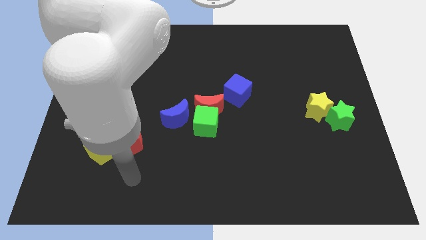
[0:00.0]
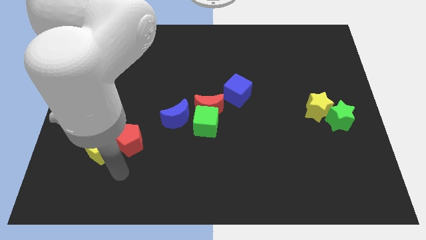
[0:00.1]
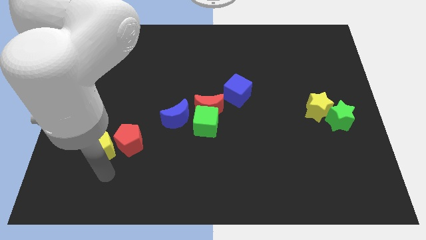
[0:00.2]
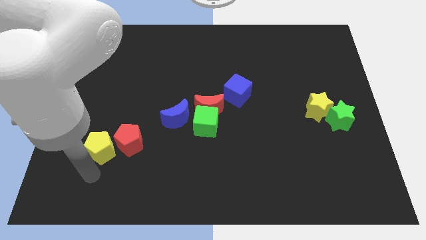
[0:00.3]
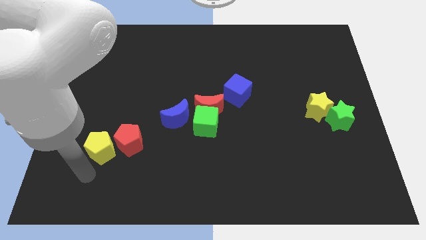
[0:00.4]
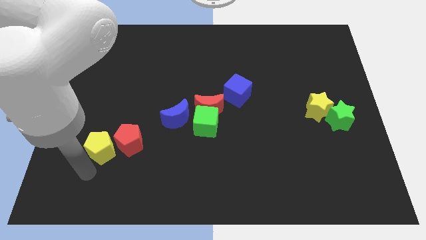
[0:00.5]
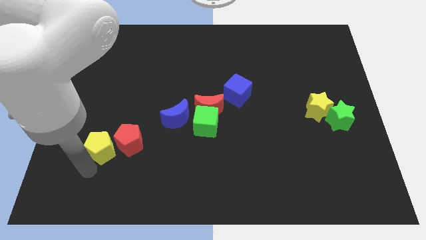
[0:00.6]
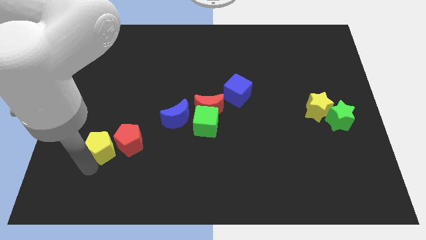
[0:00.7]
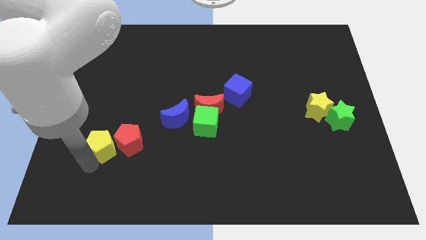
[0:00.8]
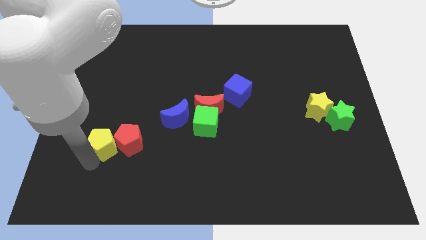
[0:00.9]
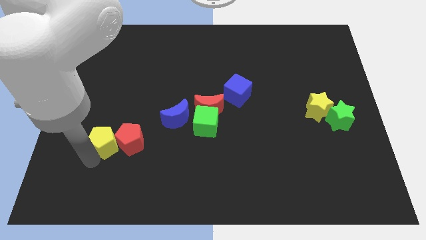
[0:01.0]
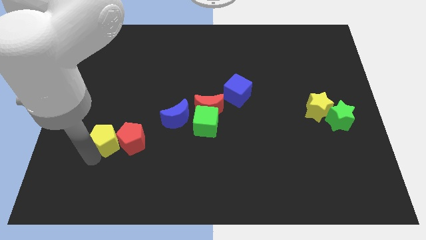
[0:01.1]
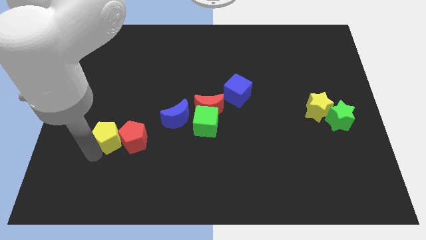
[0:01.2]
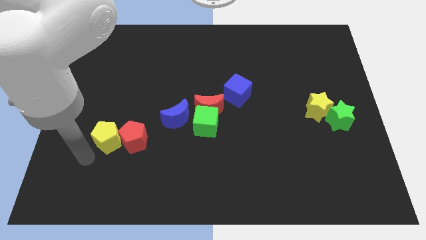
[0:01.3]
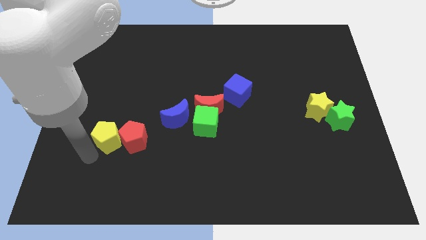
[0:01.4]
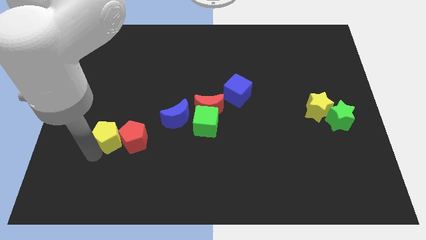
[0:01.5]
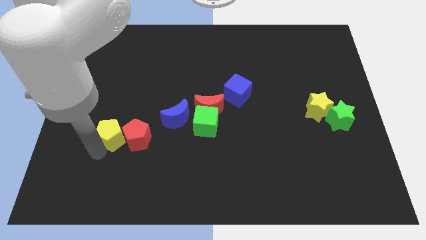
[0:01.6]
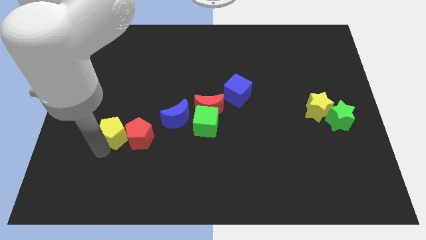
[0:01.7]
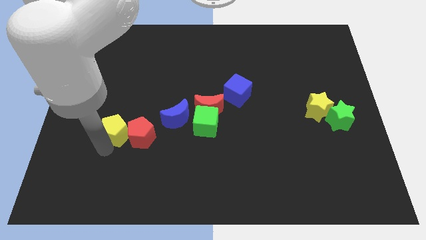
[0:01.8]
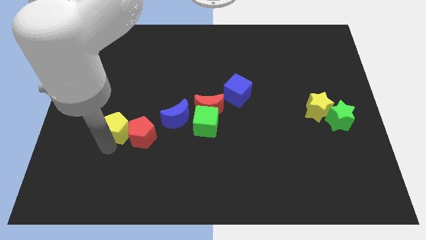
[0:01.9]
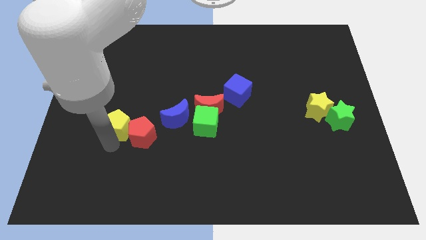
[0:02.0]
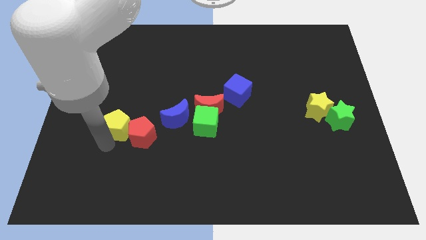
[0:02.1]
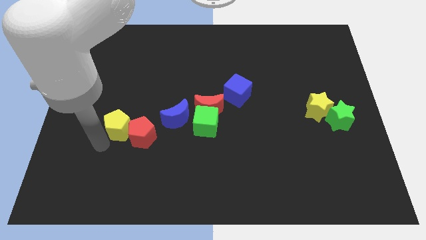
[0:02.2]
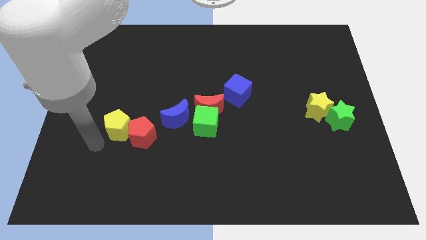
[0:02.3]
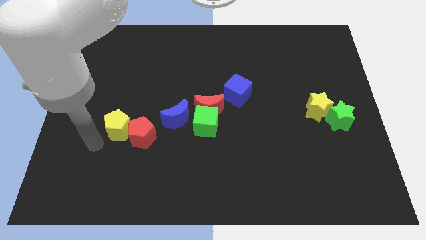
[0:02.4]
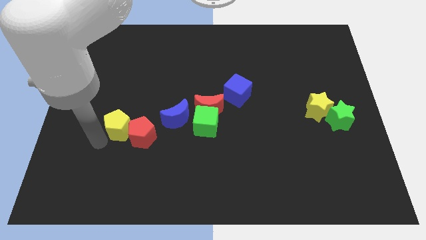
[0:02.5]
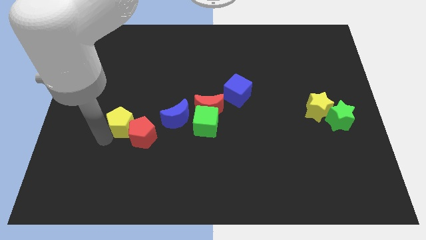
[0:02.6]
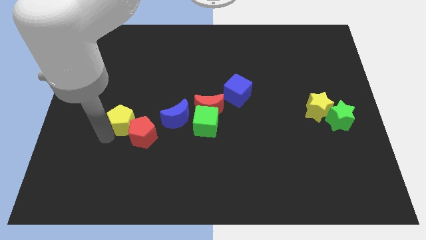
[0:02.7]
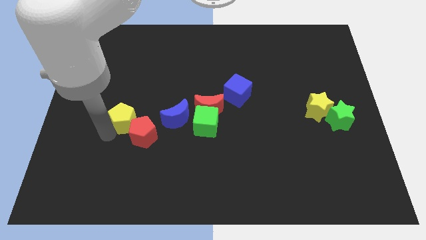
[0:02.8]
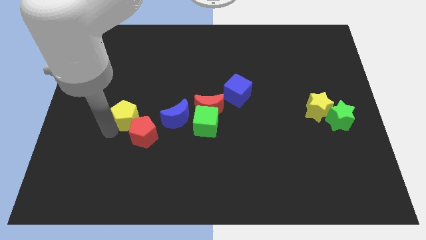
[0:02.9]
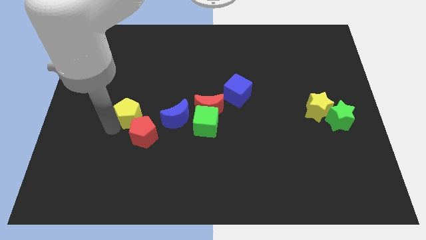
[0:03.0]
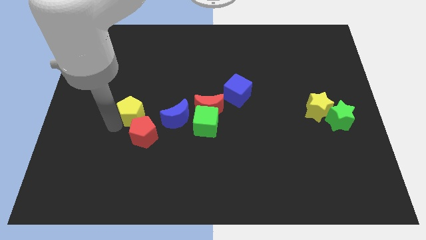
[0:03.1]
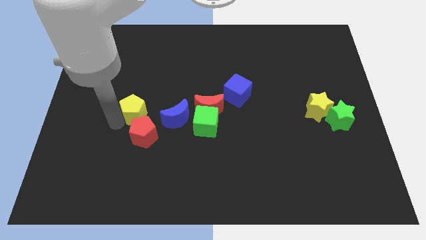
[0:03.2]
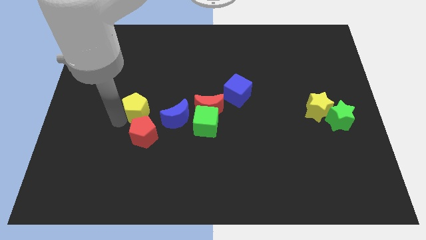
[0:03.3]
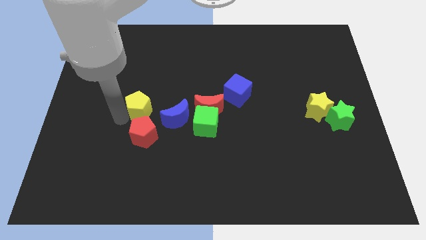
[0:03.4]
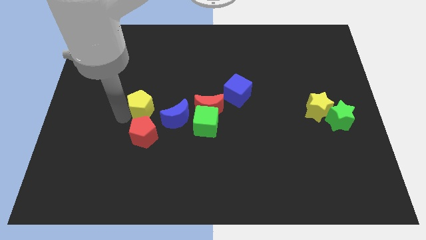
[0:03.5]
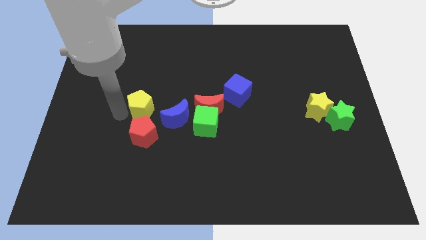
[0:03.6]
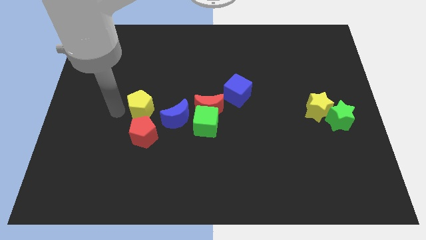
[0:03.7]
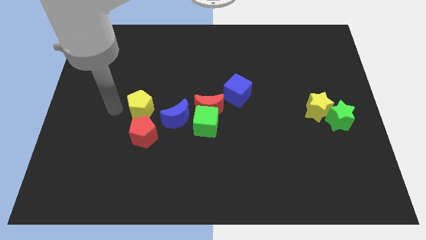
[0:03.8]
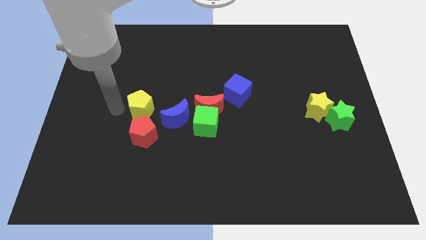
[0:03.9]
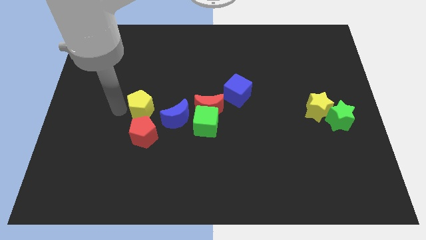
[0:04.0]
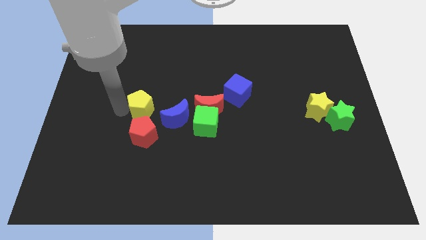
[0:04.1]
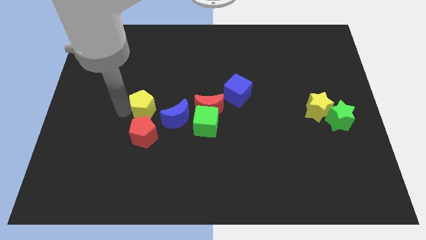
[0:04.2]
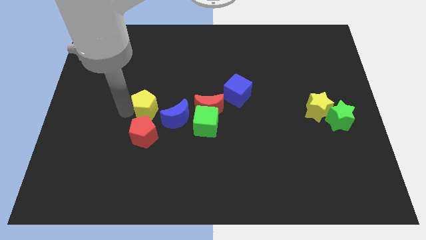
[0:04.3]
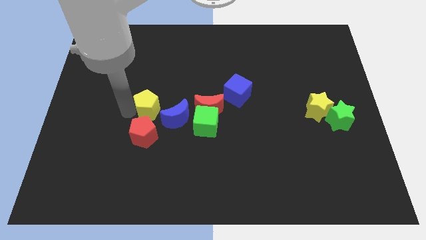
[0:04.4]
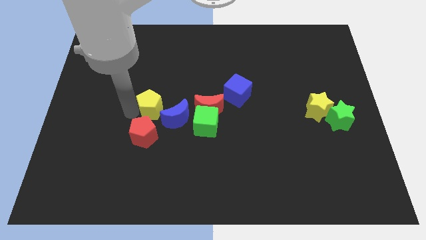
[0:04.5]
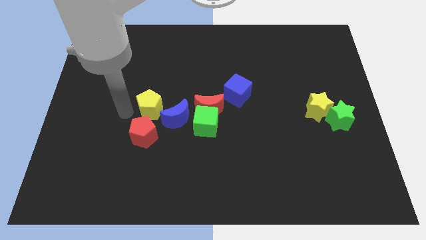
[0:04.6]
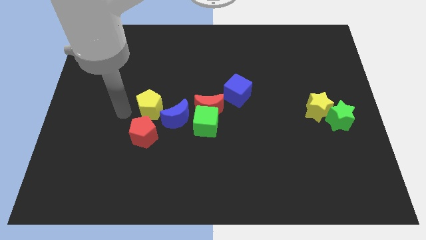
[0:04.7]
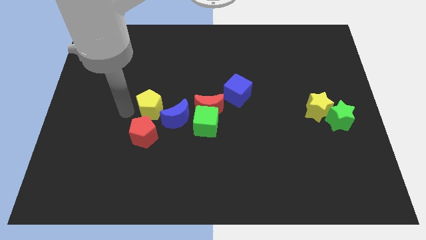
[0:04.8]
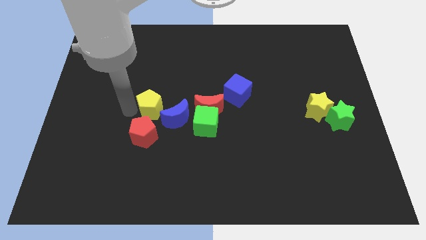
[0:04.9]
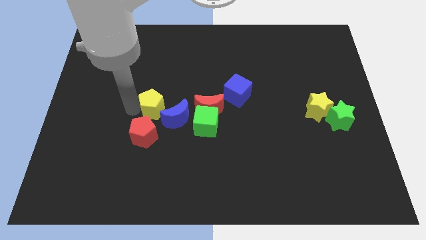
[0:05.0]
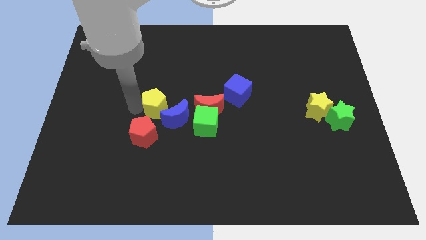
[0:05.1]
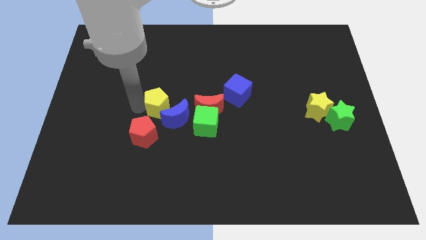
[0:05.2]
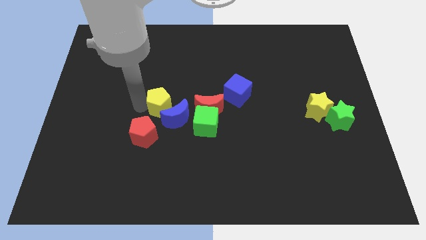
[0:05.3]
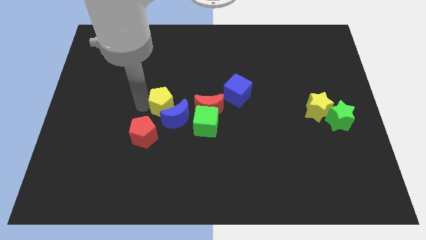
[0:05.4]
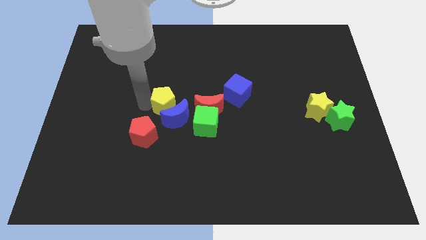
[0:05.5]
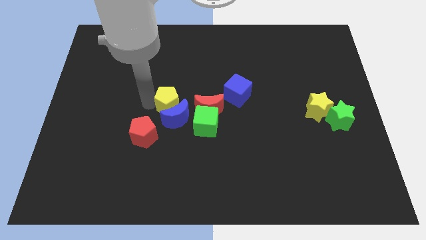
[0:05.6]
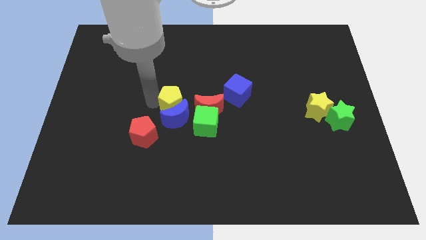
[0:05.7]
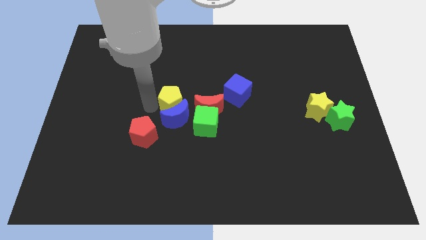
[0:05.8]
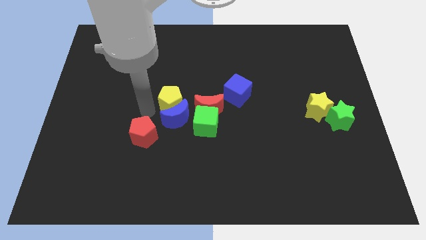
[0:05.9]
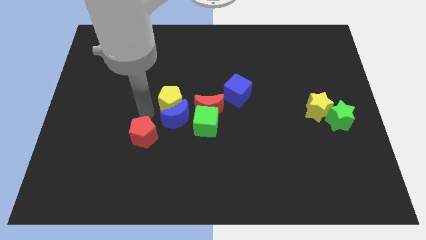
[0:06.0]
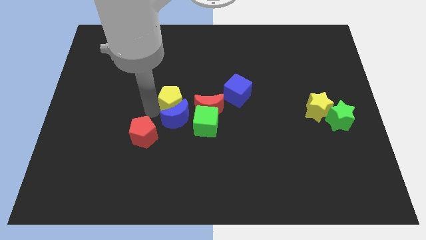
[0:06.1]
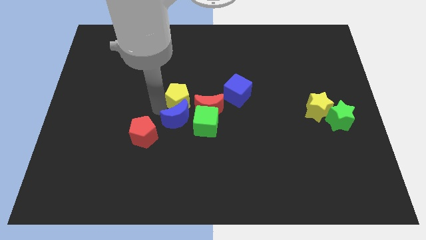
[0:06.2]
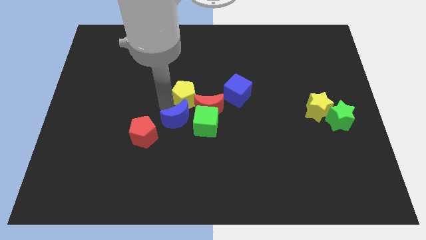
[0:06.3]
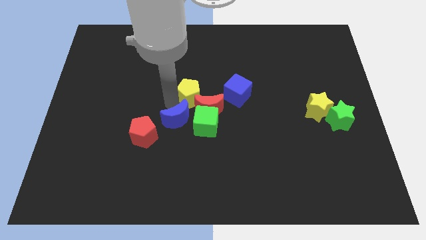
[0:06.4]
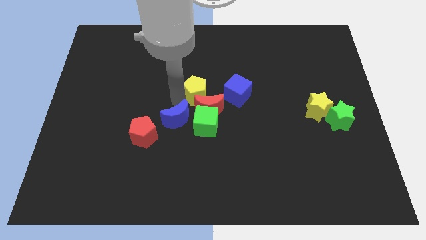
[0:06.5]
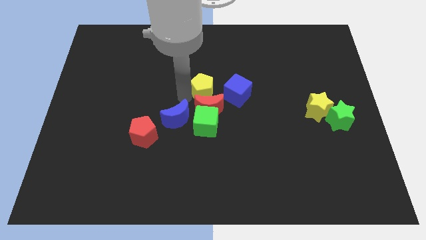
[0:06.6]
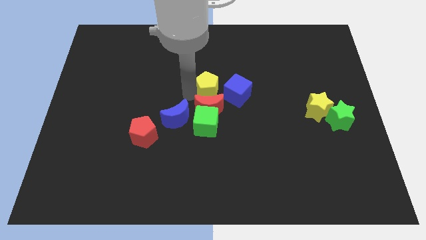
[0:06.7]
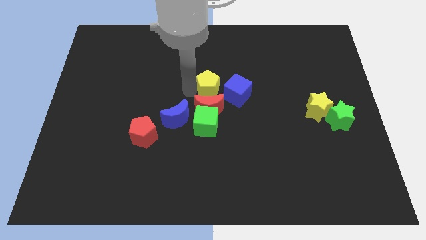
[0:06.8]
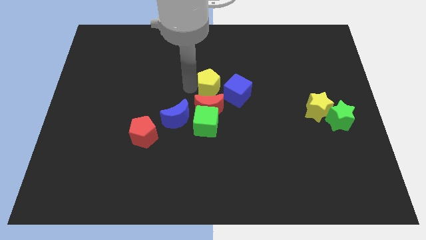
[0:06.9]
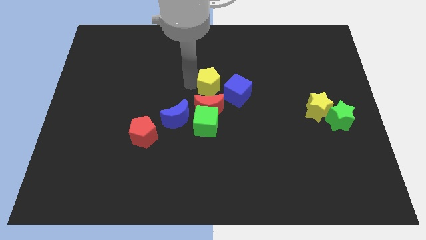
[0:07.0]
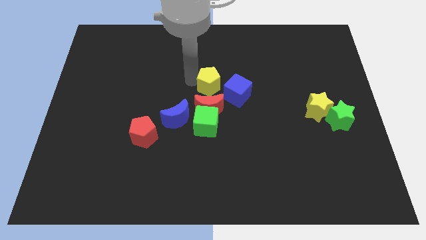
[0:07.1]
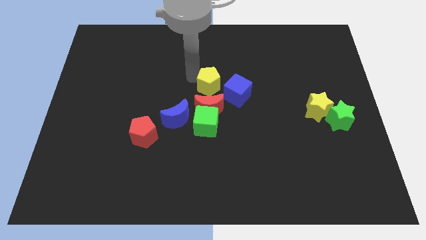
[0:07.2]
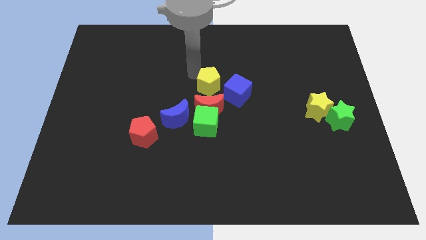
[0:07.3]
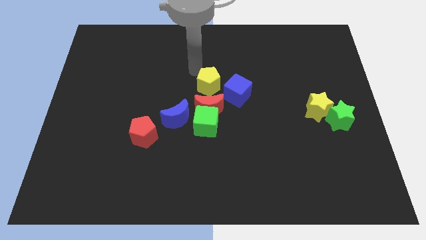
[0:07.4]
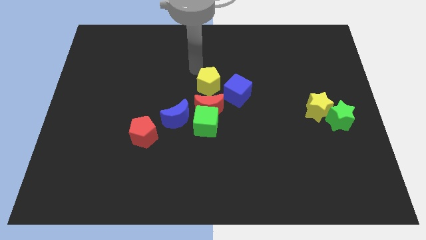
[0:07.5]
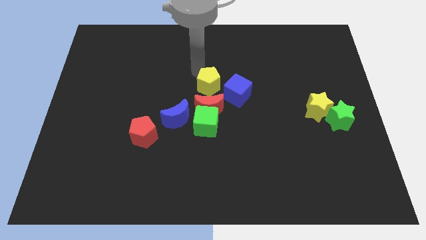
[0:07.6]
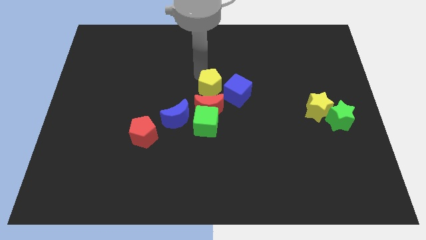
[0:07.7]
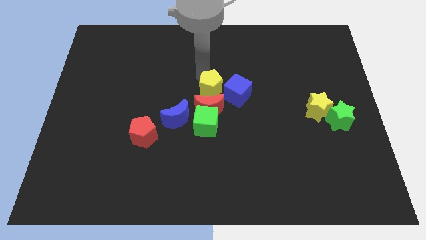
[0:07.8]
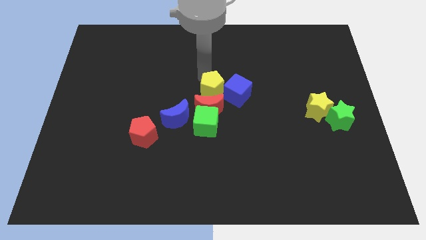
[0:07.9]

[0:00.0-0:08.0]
put the yellow pentagon towards the blue cube
